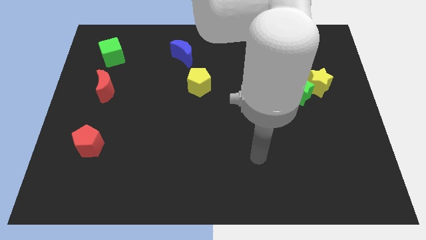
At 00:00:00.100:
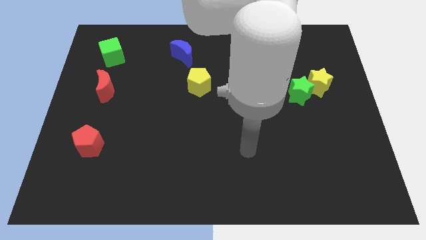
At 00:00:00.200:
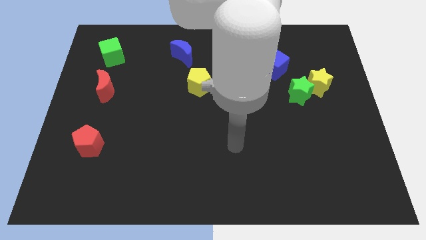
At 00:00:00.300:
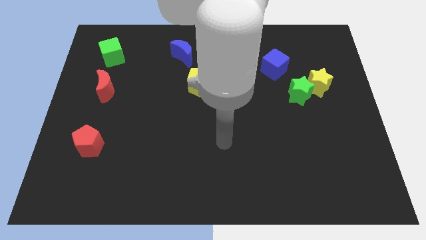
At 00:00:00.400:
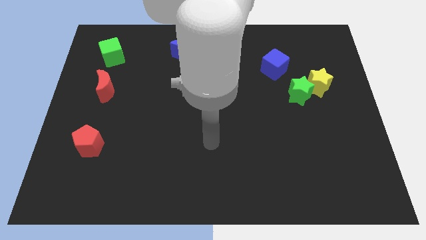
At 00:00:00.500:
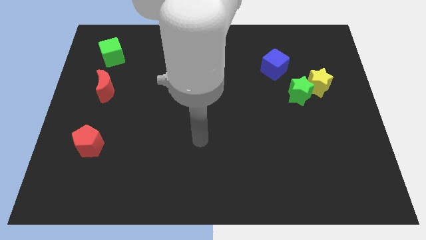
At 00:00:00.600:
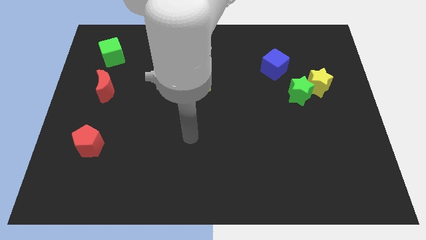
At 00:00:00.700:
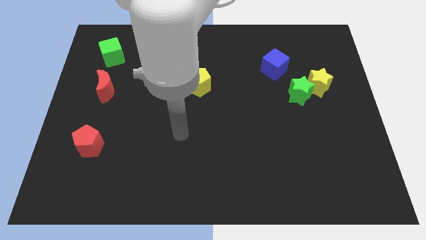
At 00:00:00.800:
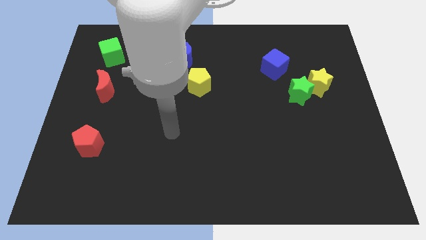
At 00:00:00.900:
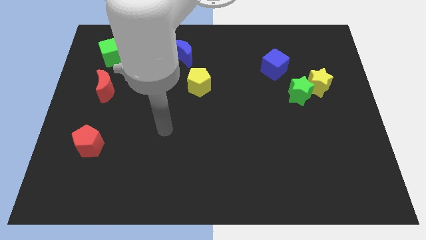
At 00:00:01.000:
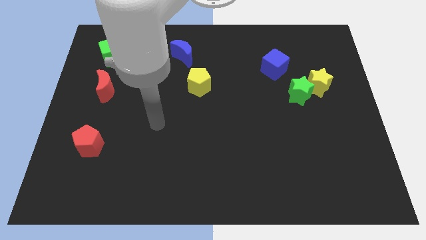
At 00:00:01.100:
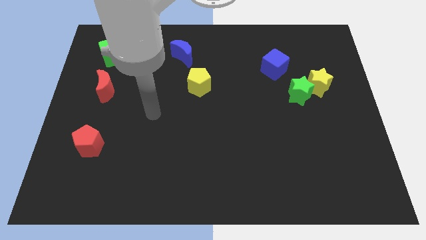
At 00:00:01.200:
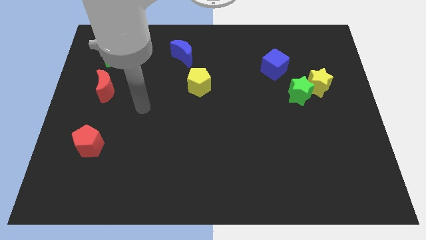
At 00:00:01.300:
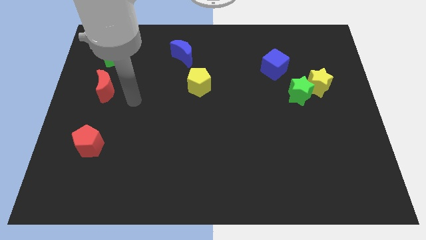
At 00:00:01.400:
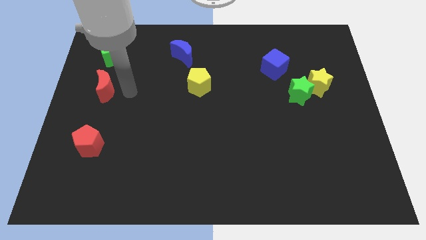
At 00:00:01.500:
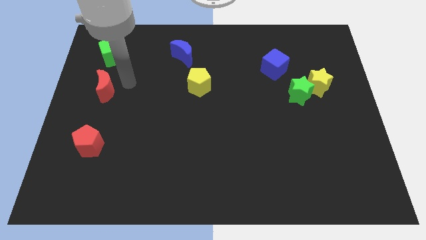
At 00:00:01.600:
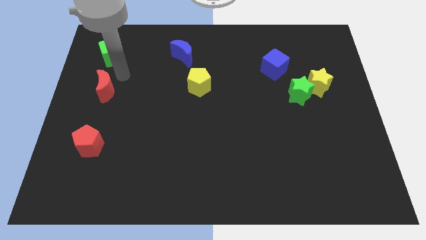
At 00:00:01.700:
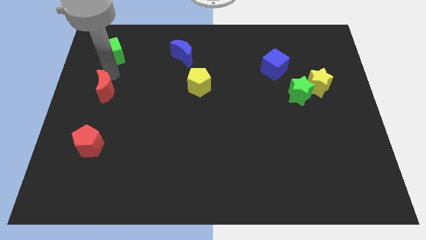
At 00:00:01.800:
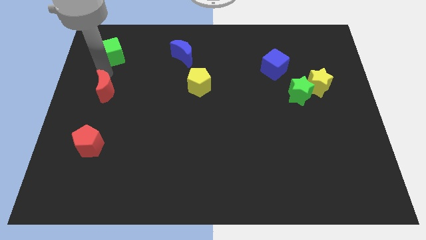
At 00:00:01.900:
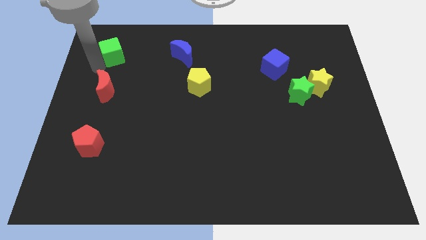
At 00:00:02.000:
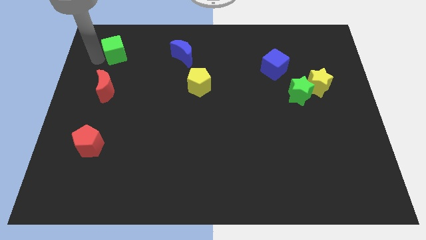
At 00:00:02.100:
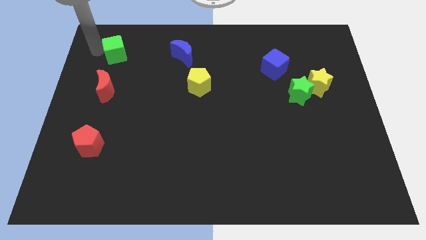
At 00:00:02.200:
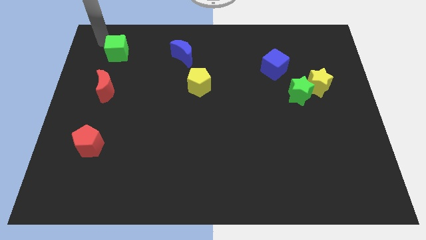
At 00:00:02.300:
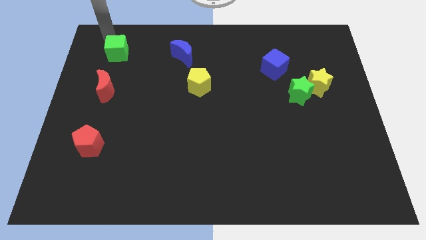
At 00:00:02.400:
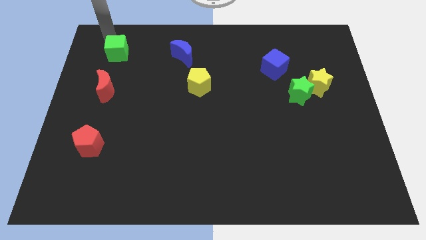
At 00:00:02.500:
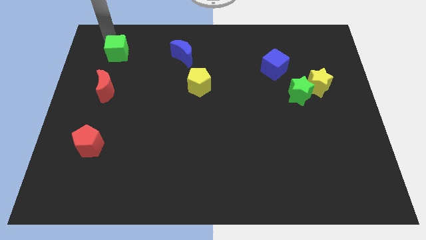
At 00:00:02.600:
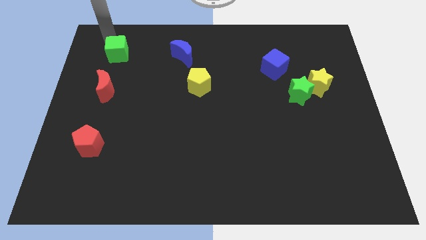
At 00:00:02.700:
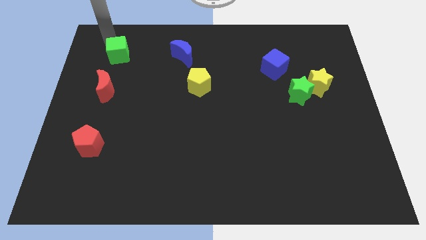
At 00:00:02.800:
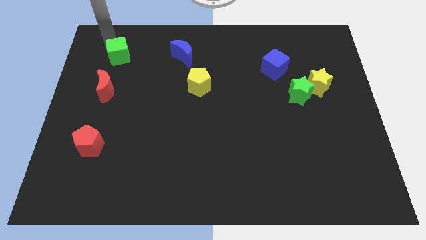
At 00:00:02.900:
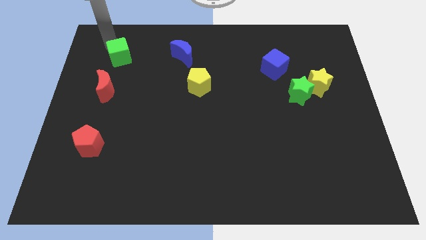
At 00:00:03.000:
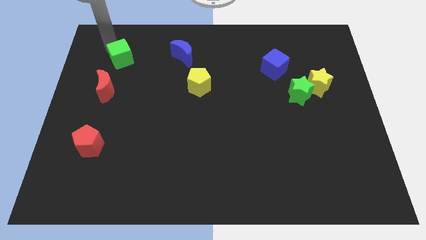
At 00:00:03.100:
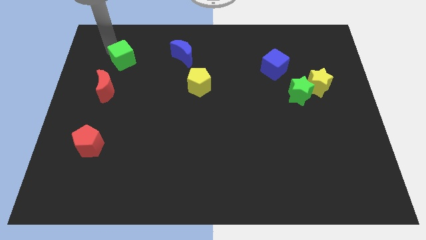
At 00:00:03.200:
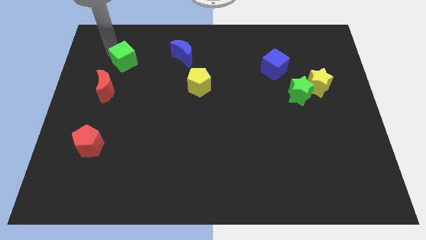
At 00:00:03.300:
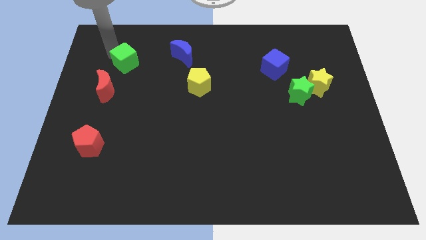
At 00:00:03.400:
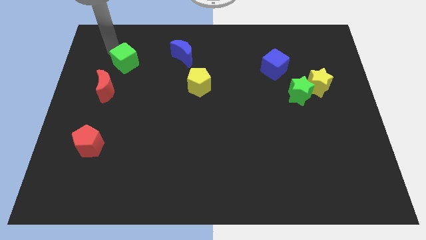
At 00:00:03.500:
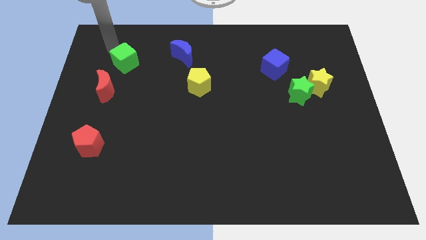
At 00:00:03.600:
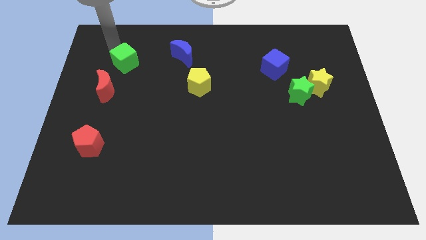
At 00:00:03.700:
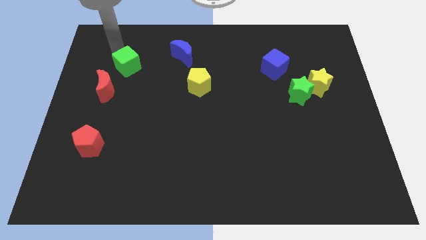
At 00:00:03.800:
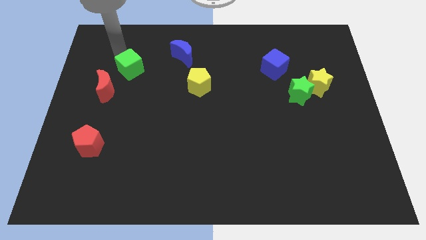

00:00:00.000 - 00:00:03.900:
slightly slide the green cube downwards and right

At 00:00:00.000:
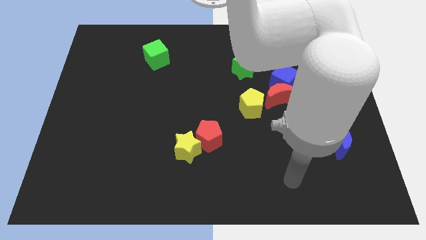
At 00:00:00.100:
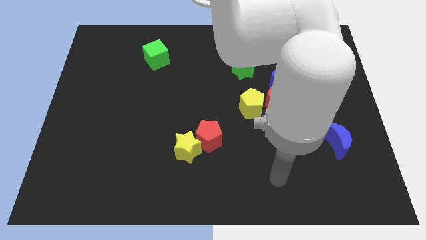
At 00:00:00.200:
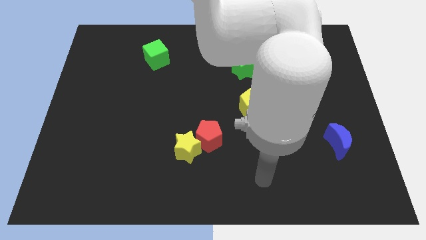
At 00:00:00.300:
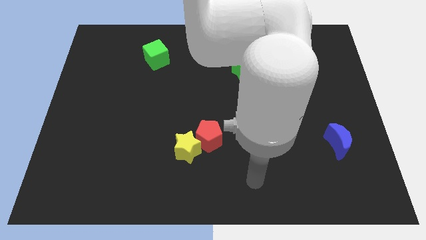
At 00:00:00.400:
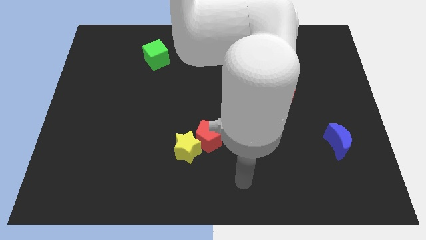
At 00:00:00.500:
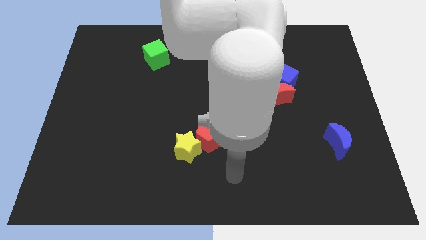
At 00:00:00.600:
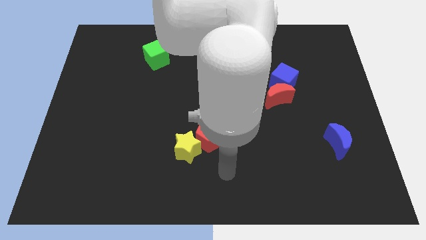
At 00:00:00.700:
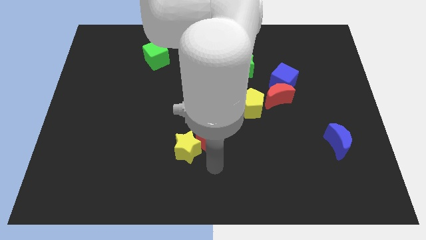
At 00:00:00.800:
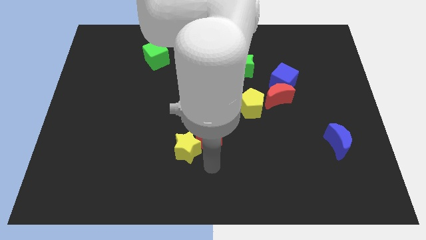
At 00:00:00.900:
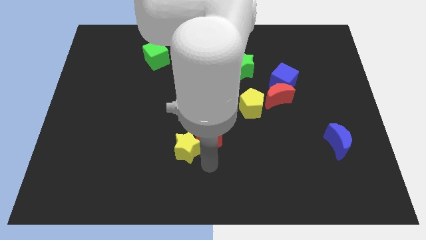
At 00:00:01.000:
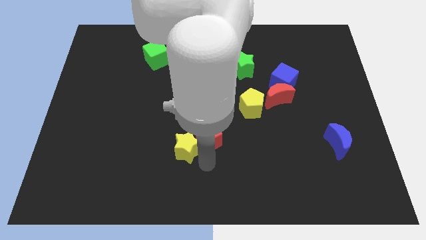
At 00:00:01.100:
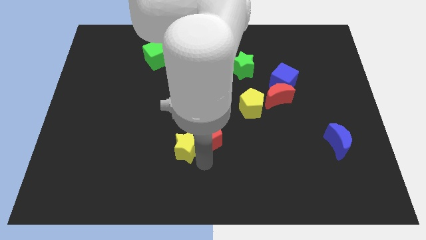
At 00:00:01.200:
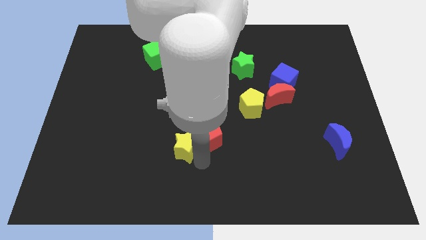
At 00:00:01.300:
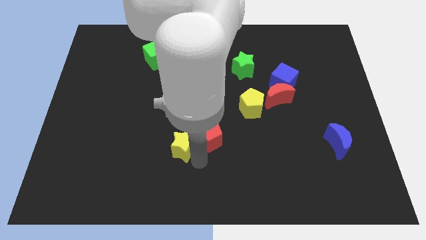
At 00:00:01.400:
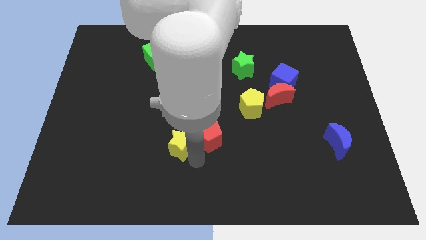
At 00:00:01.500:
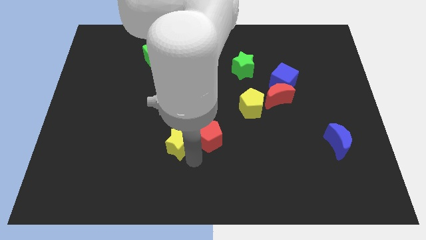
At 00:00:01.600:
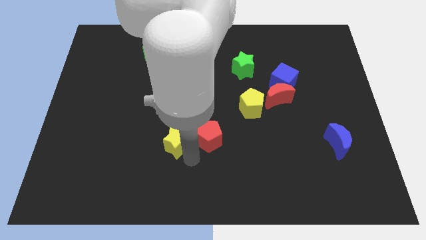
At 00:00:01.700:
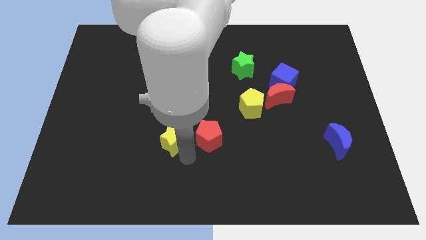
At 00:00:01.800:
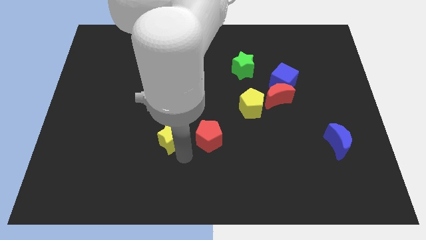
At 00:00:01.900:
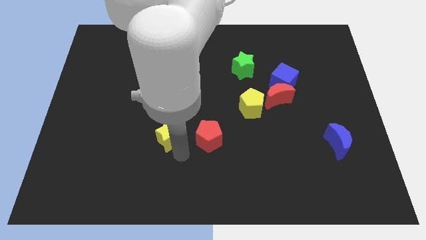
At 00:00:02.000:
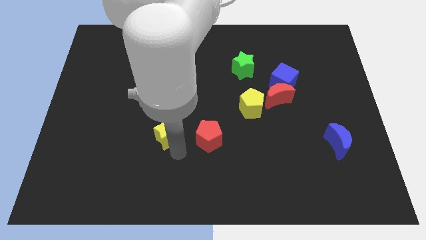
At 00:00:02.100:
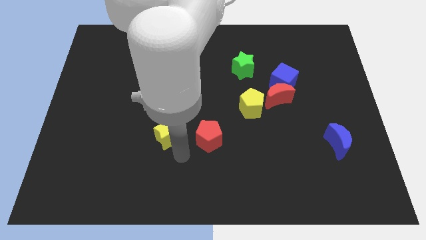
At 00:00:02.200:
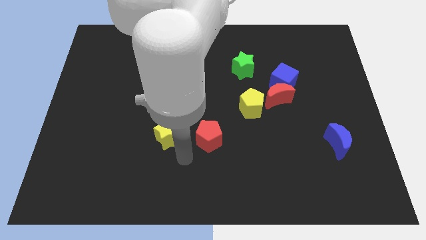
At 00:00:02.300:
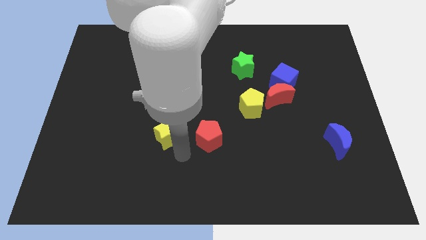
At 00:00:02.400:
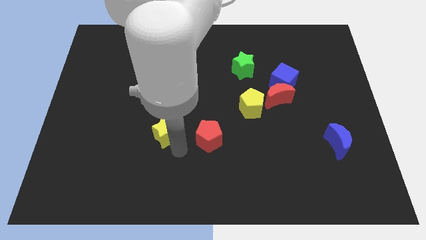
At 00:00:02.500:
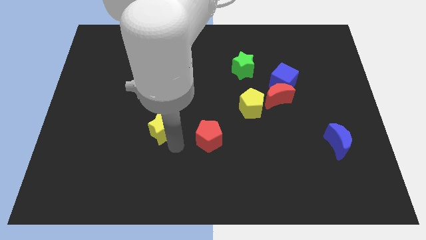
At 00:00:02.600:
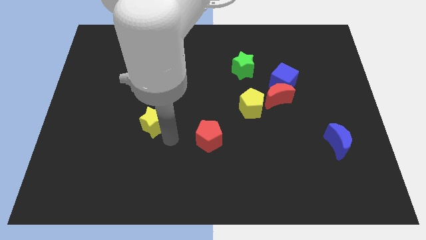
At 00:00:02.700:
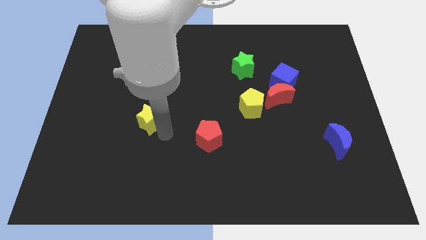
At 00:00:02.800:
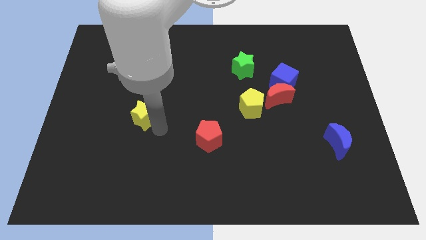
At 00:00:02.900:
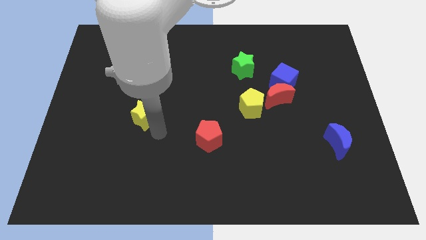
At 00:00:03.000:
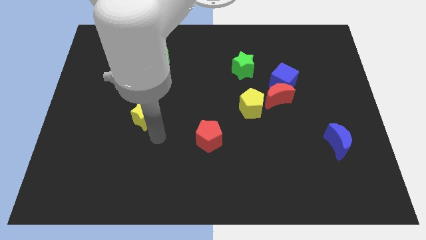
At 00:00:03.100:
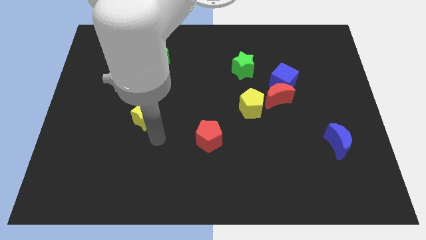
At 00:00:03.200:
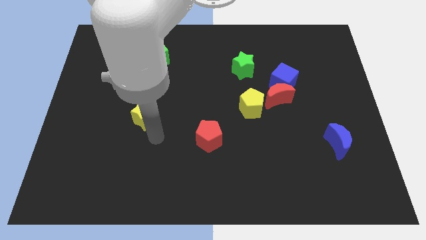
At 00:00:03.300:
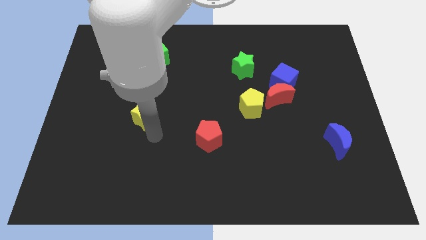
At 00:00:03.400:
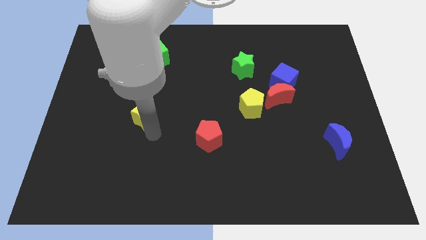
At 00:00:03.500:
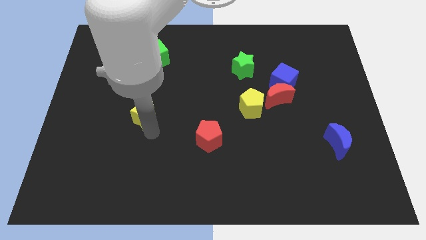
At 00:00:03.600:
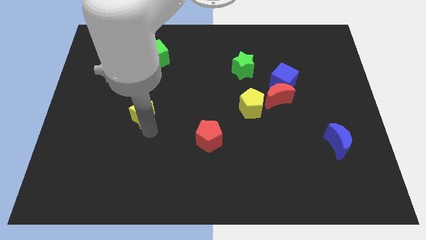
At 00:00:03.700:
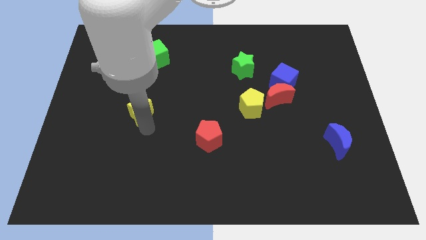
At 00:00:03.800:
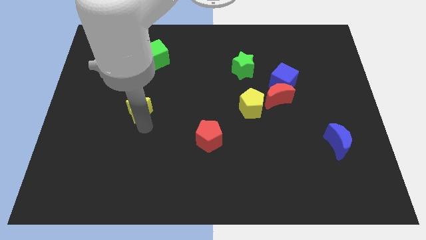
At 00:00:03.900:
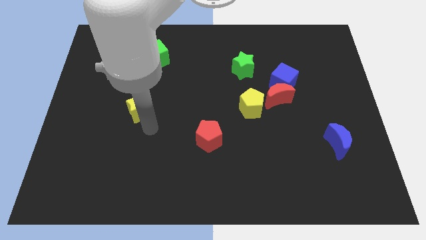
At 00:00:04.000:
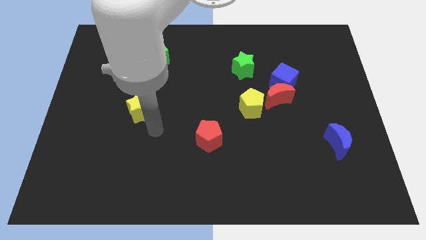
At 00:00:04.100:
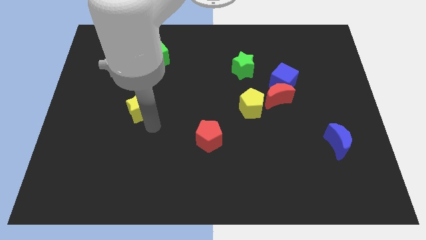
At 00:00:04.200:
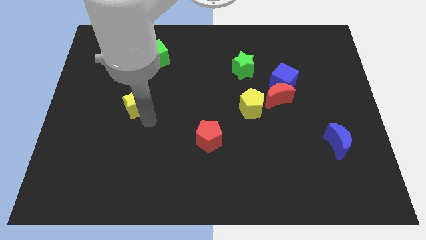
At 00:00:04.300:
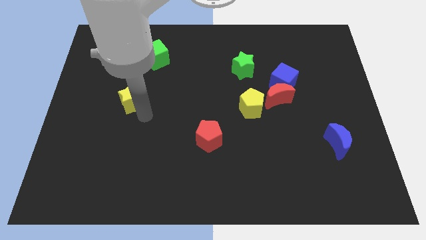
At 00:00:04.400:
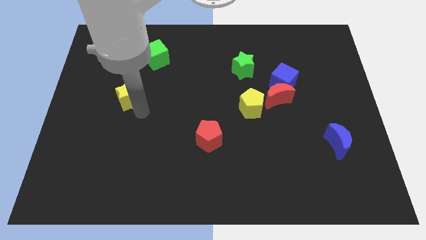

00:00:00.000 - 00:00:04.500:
move the yellow star diagonally up and left
